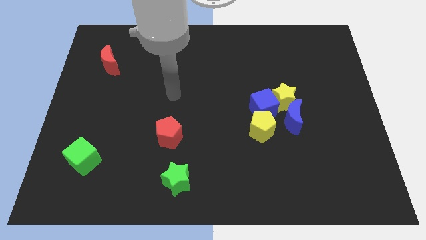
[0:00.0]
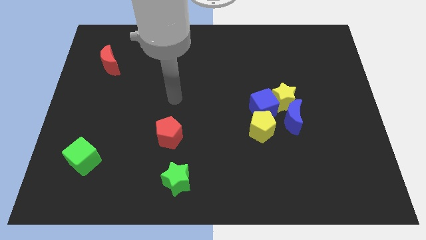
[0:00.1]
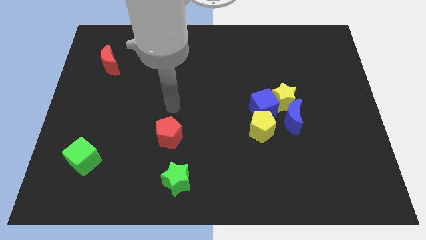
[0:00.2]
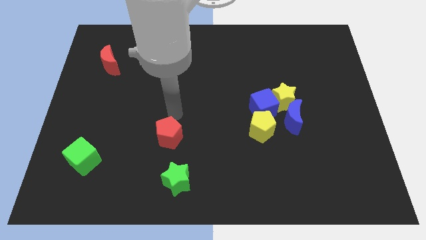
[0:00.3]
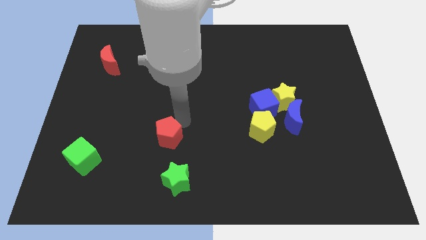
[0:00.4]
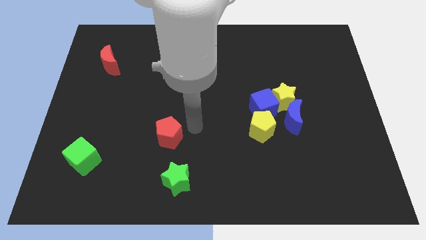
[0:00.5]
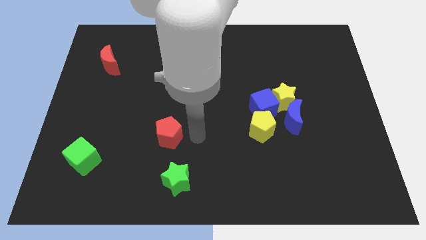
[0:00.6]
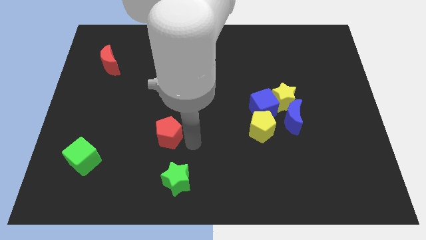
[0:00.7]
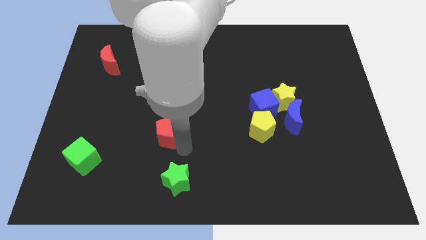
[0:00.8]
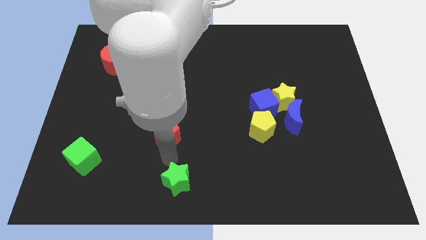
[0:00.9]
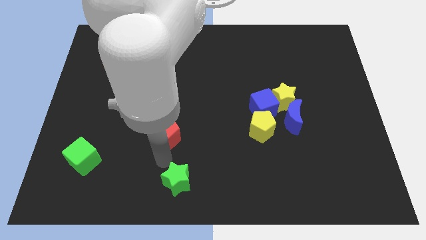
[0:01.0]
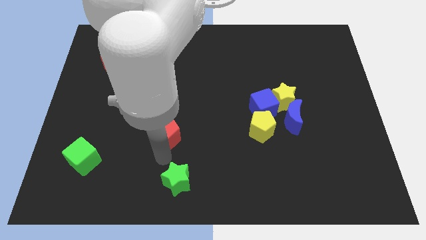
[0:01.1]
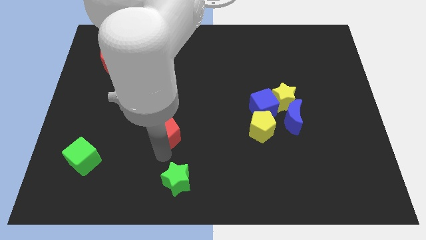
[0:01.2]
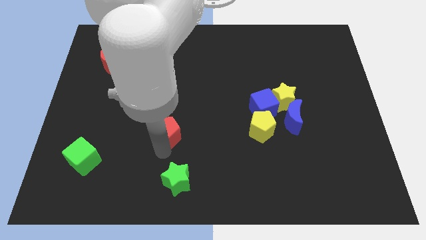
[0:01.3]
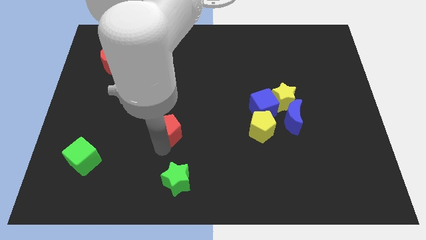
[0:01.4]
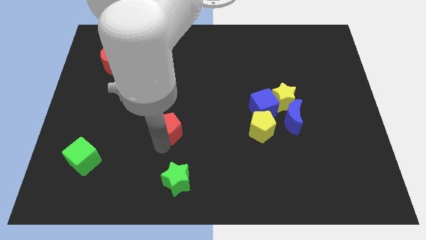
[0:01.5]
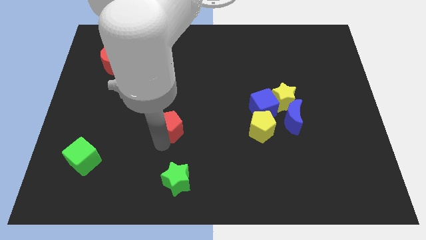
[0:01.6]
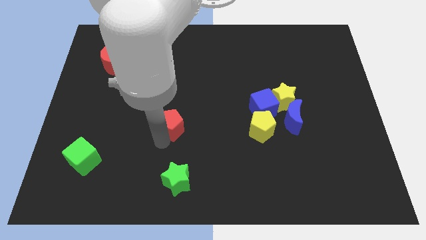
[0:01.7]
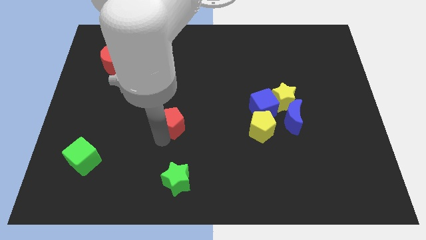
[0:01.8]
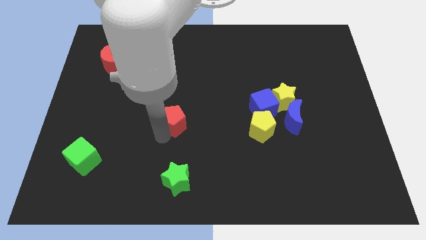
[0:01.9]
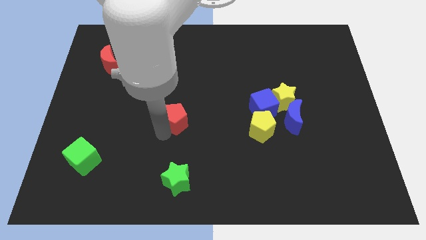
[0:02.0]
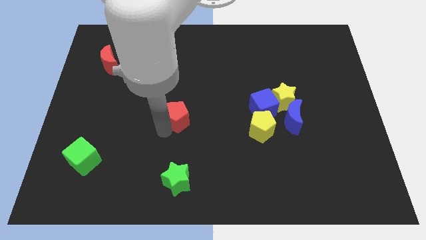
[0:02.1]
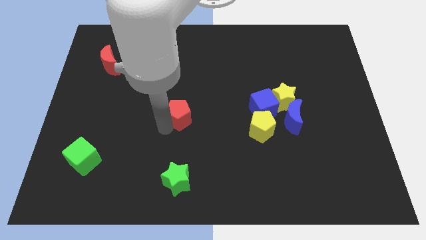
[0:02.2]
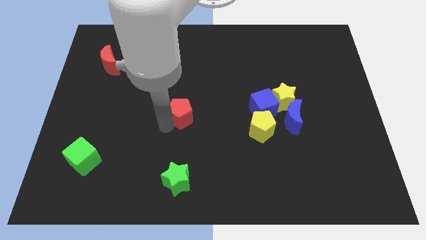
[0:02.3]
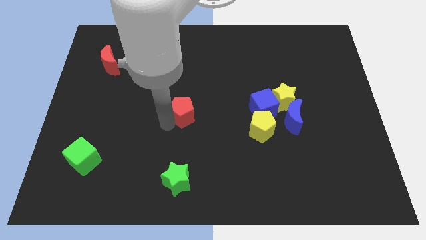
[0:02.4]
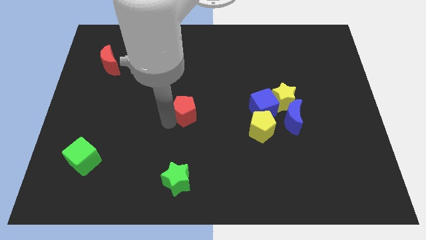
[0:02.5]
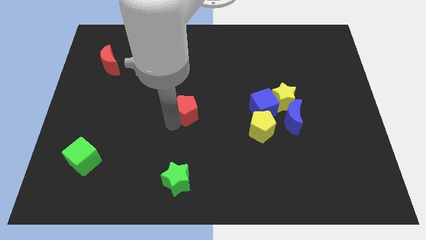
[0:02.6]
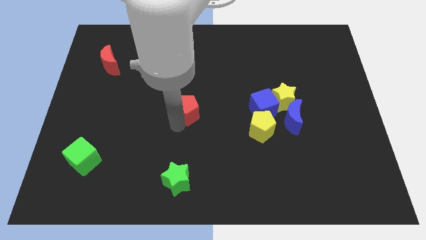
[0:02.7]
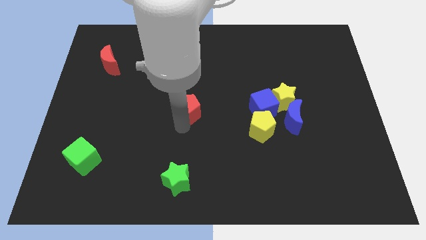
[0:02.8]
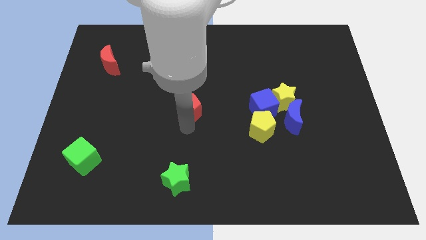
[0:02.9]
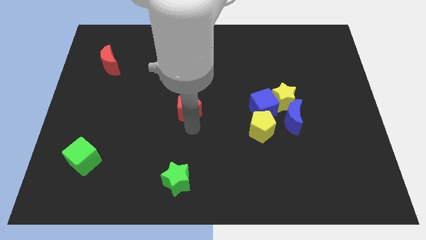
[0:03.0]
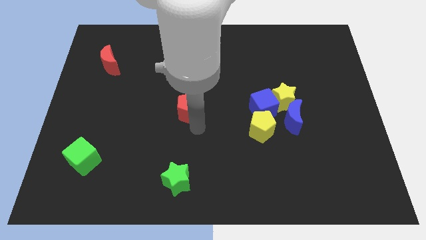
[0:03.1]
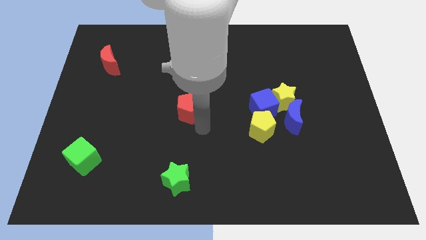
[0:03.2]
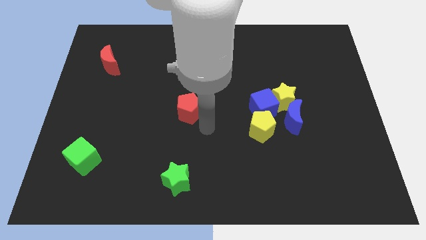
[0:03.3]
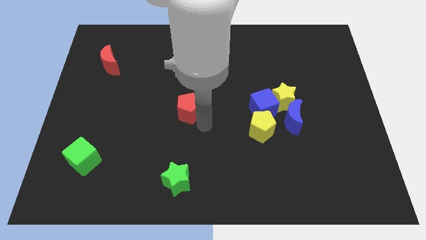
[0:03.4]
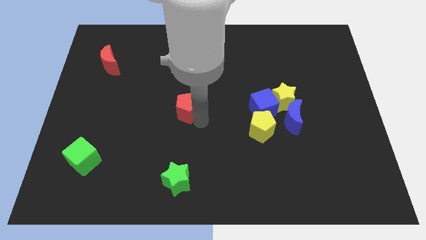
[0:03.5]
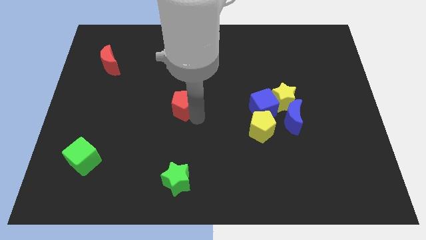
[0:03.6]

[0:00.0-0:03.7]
slightly slide the red pentagon up

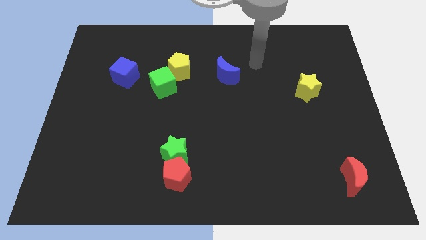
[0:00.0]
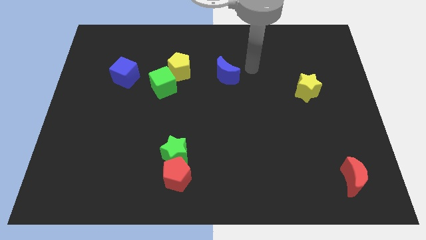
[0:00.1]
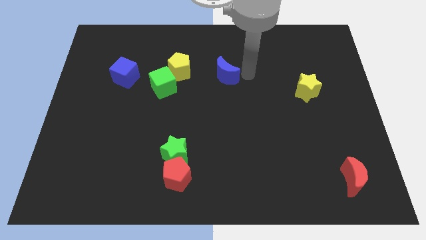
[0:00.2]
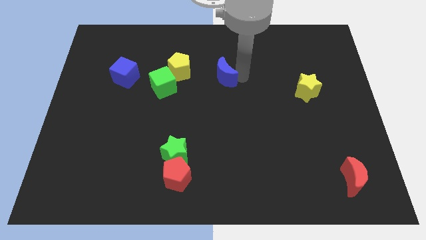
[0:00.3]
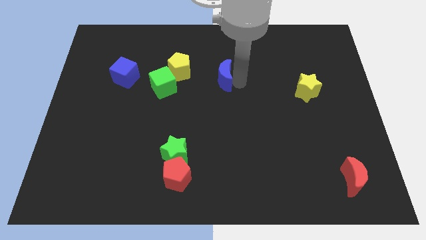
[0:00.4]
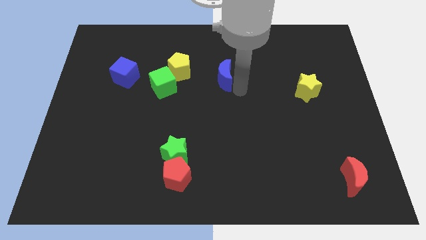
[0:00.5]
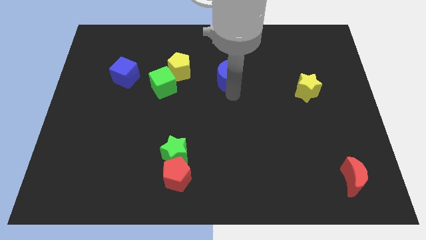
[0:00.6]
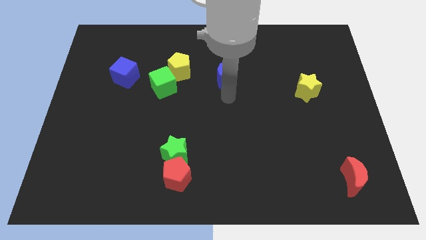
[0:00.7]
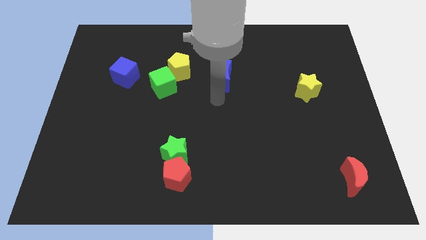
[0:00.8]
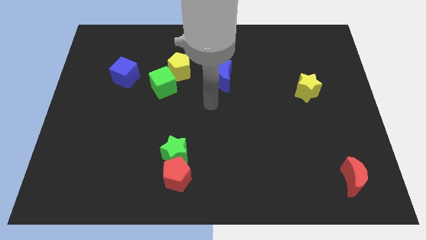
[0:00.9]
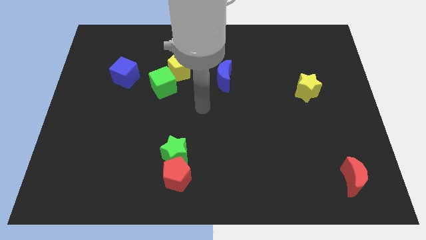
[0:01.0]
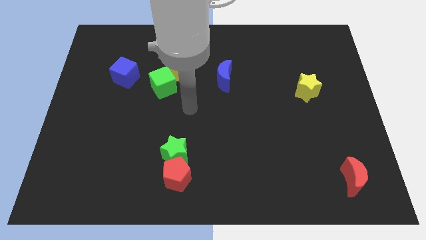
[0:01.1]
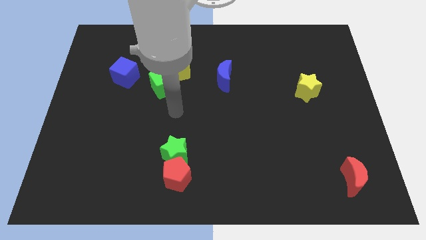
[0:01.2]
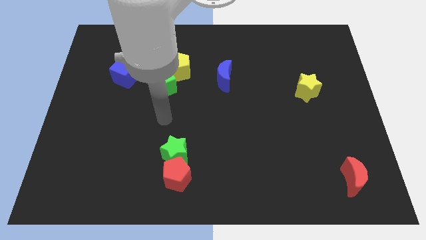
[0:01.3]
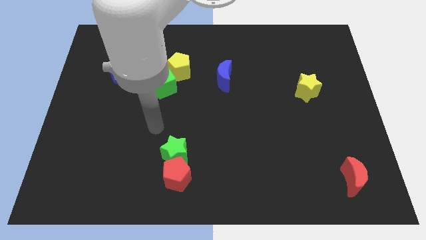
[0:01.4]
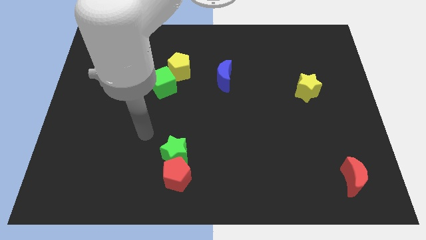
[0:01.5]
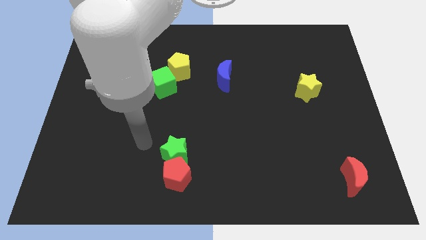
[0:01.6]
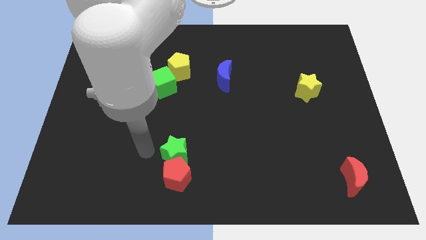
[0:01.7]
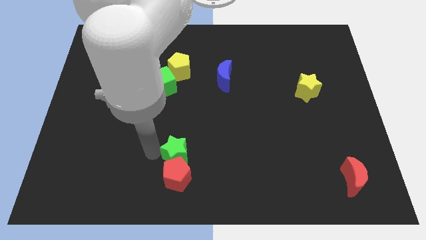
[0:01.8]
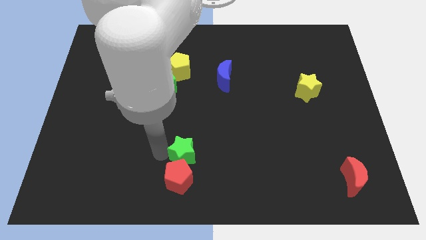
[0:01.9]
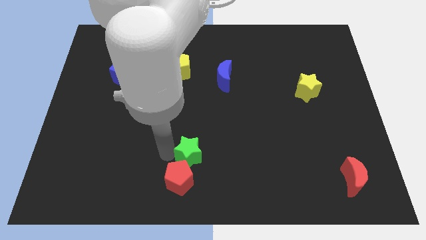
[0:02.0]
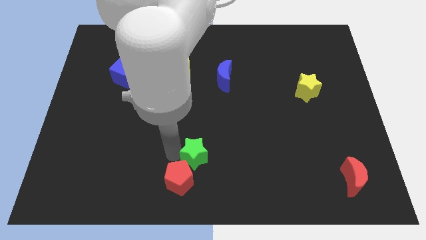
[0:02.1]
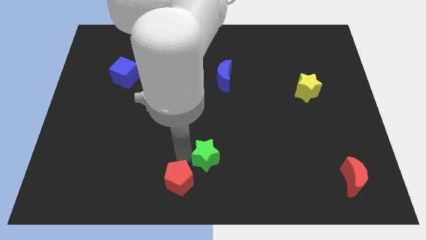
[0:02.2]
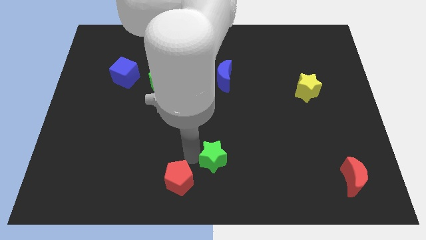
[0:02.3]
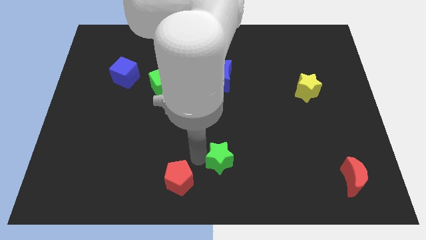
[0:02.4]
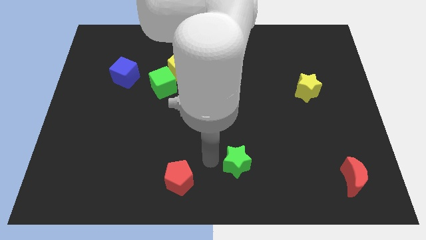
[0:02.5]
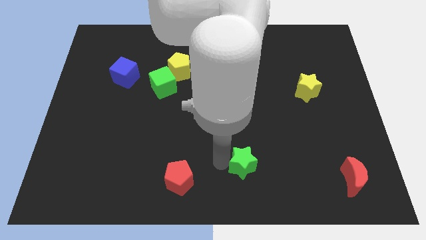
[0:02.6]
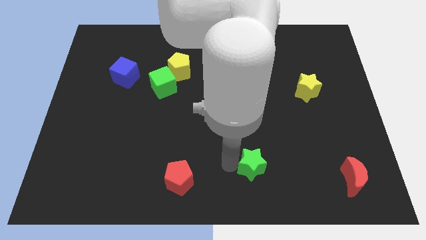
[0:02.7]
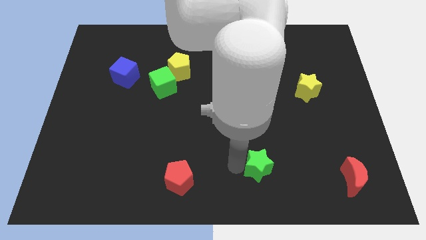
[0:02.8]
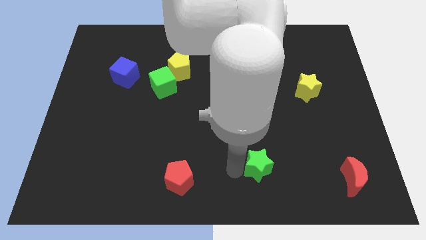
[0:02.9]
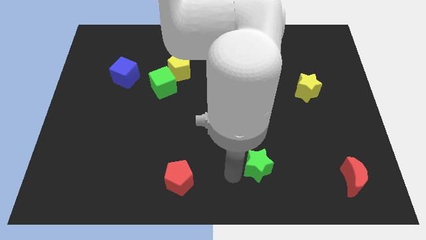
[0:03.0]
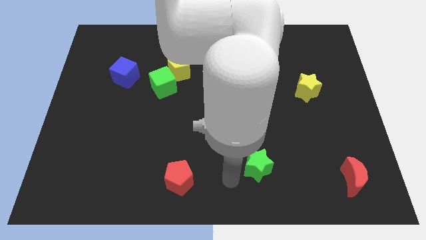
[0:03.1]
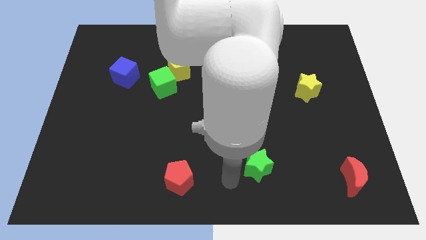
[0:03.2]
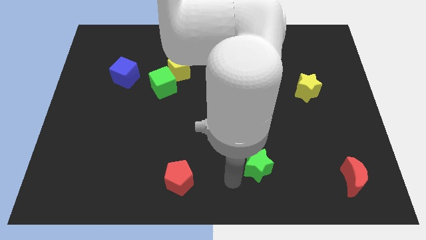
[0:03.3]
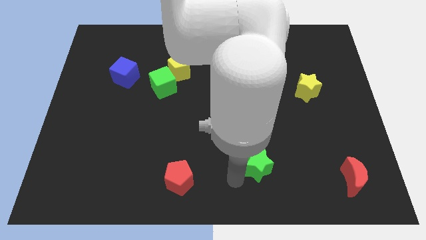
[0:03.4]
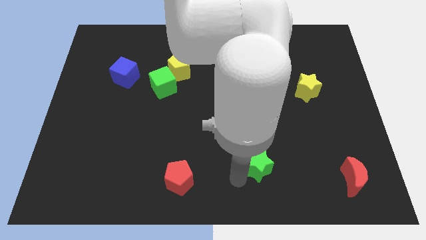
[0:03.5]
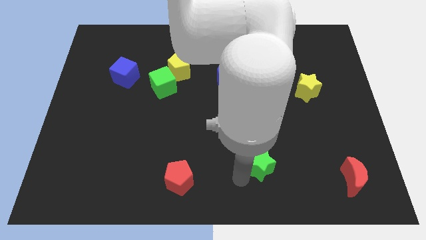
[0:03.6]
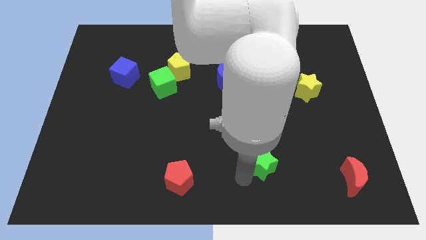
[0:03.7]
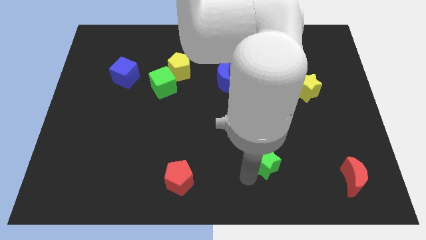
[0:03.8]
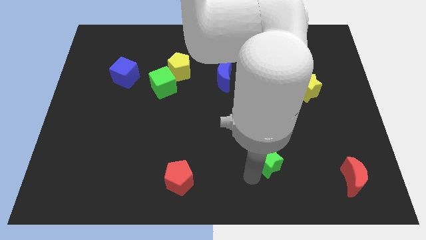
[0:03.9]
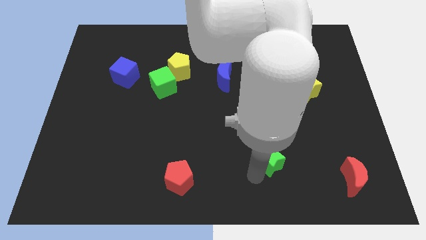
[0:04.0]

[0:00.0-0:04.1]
slide the green star right

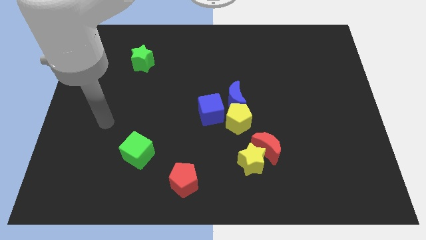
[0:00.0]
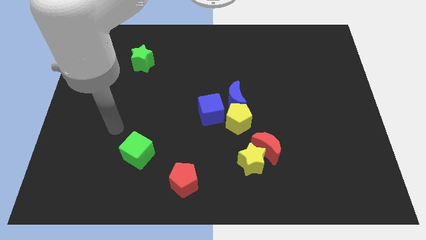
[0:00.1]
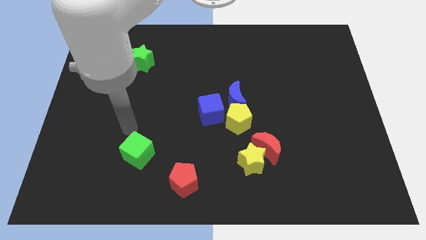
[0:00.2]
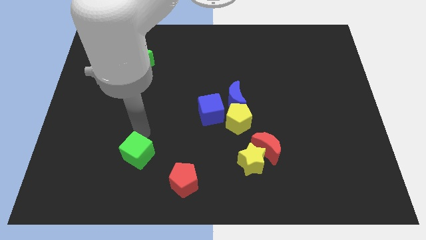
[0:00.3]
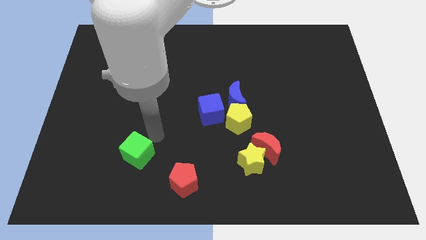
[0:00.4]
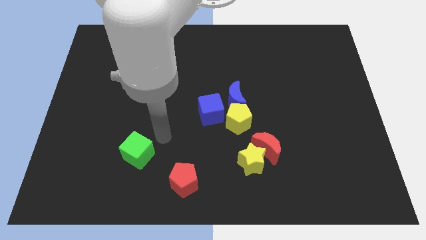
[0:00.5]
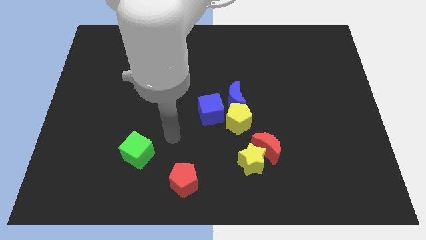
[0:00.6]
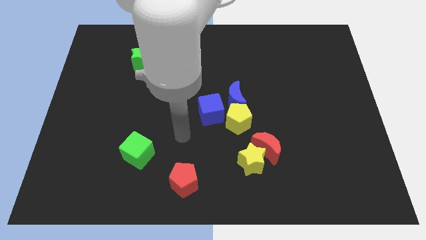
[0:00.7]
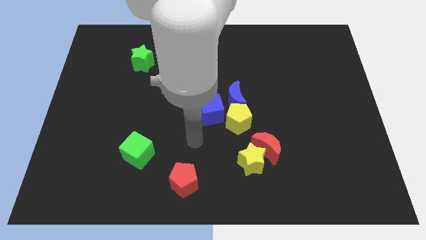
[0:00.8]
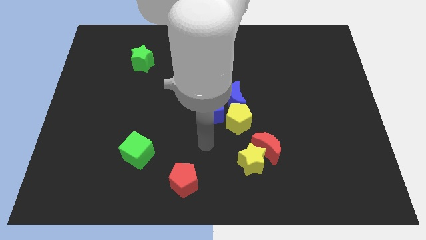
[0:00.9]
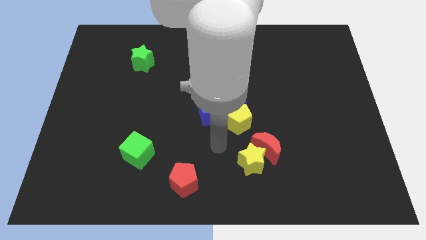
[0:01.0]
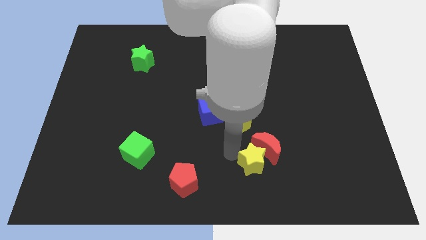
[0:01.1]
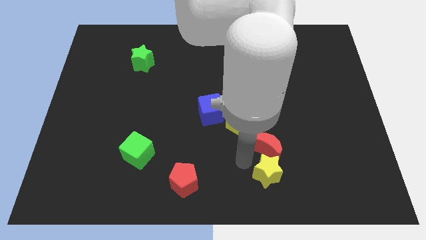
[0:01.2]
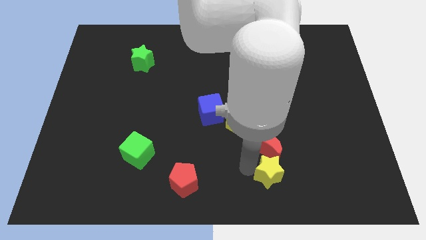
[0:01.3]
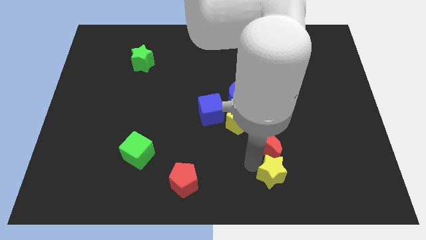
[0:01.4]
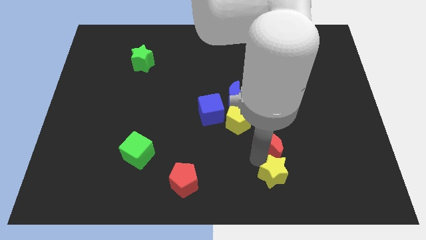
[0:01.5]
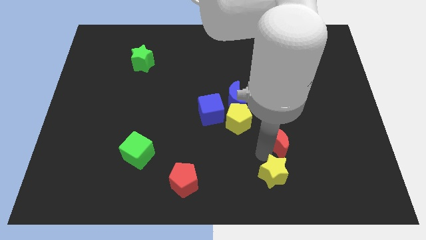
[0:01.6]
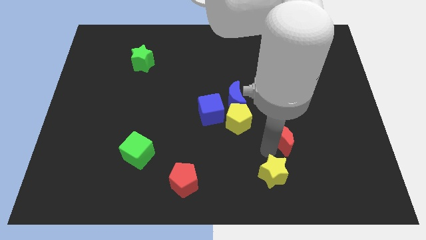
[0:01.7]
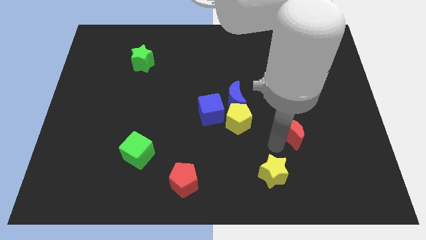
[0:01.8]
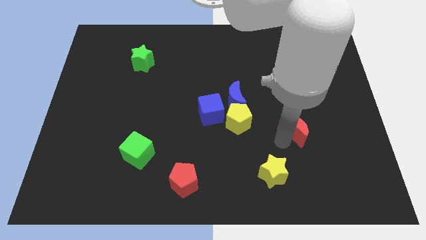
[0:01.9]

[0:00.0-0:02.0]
slightly slide the red moon diagonally up and to the right
